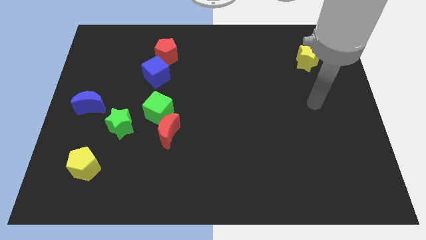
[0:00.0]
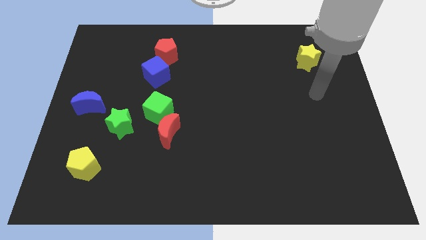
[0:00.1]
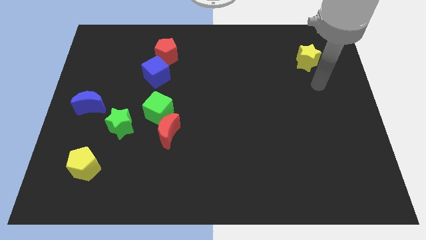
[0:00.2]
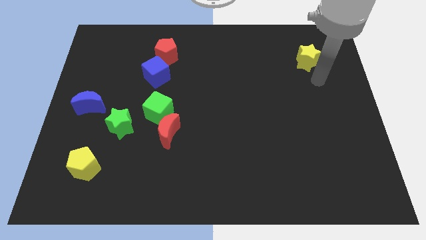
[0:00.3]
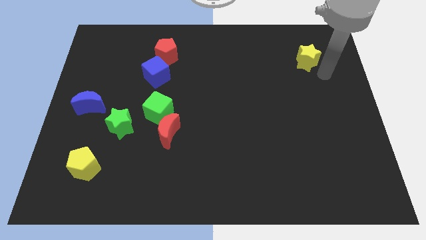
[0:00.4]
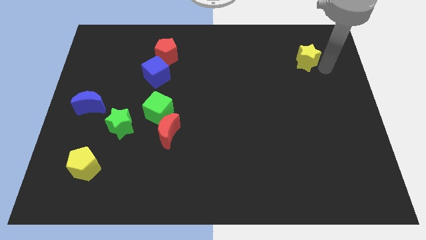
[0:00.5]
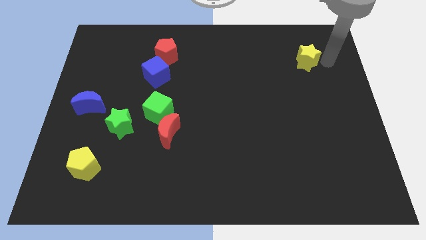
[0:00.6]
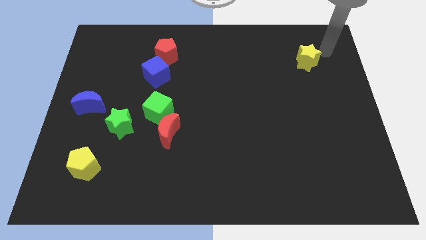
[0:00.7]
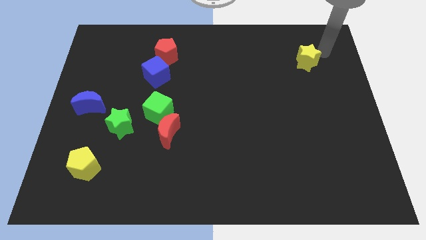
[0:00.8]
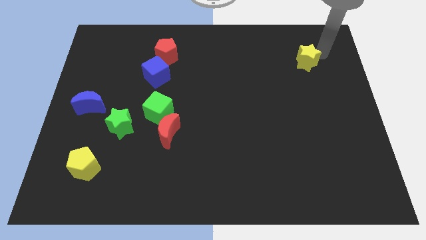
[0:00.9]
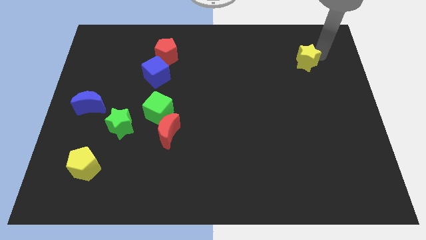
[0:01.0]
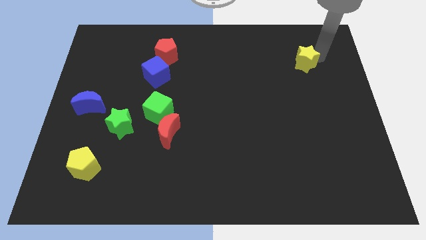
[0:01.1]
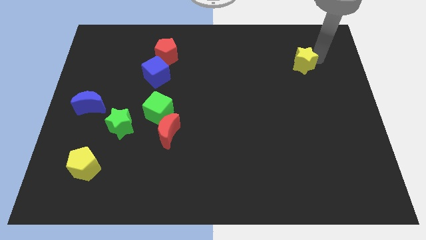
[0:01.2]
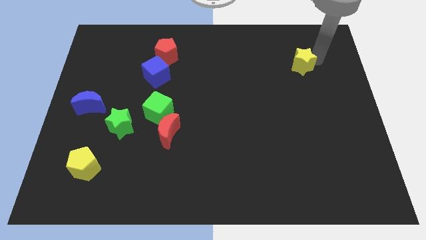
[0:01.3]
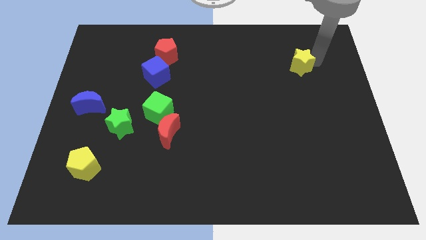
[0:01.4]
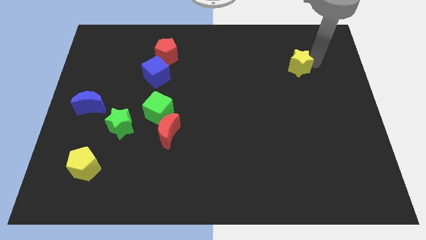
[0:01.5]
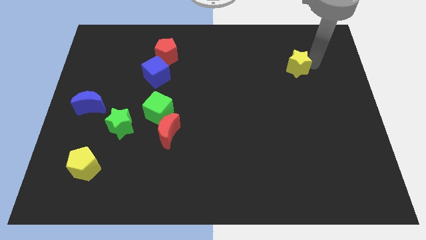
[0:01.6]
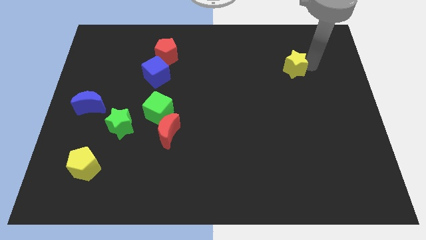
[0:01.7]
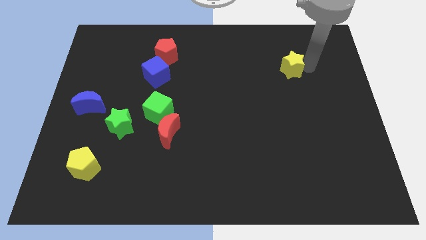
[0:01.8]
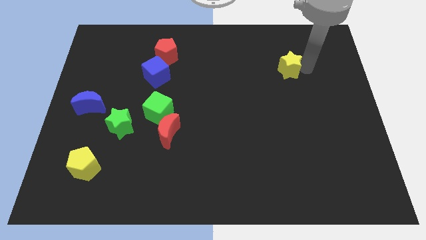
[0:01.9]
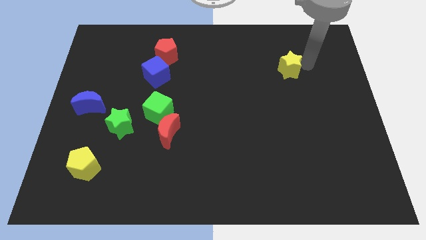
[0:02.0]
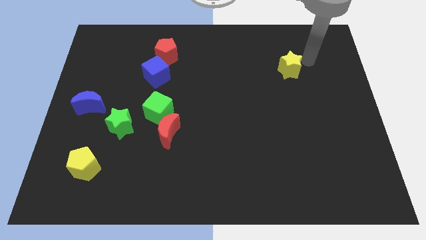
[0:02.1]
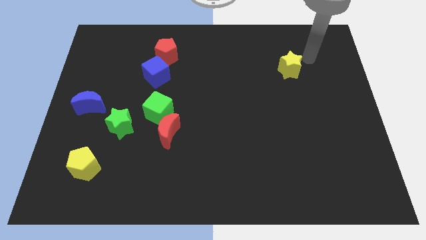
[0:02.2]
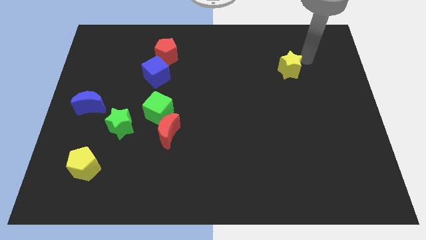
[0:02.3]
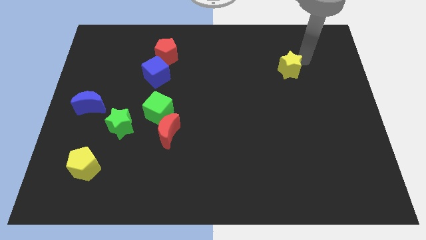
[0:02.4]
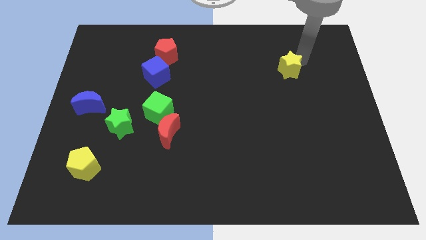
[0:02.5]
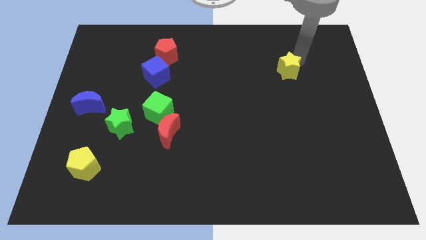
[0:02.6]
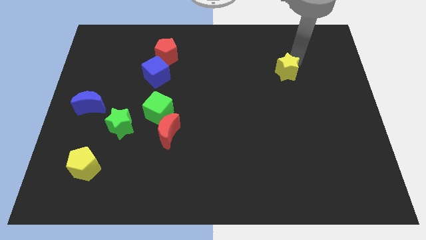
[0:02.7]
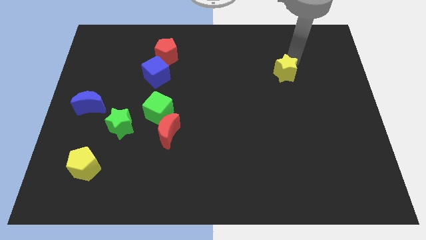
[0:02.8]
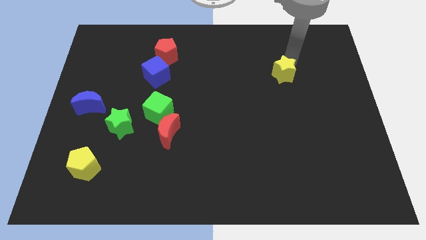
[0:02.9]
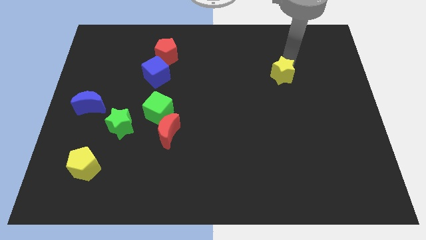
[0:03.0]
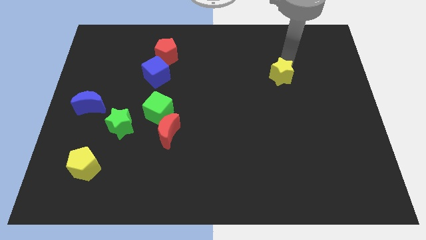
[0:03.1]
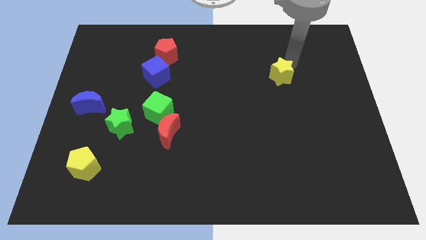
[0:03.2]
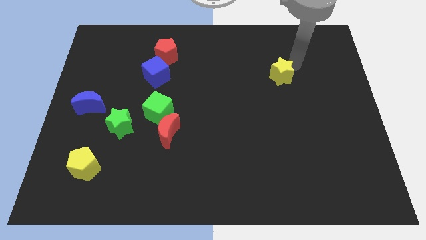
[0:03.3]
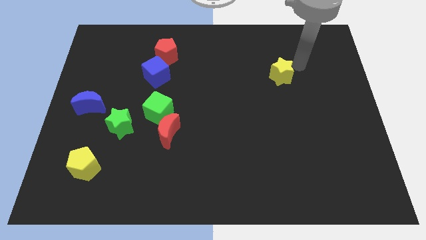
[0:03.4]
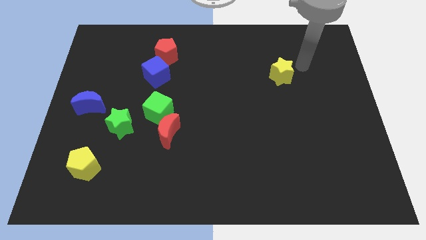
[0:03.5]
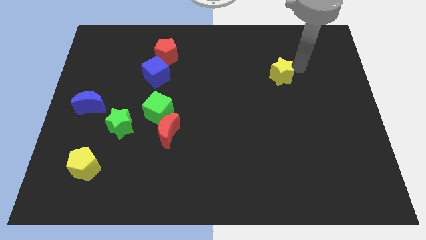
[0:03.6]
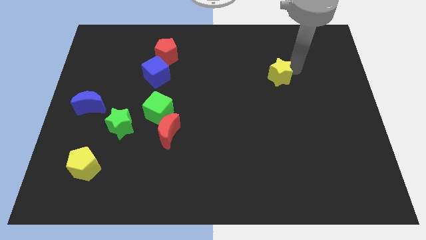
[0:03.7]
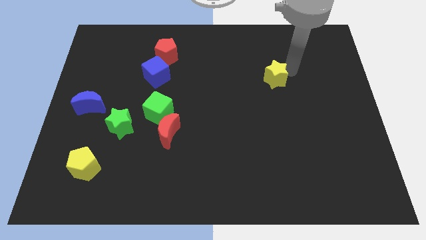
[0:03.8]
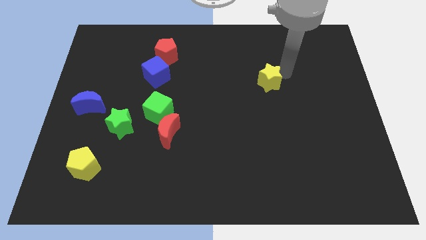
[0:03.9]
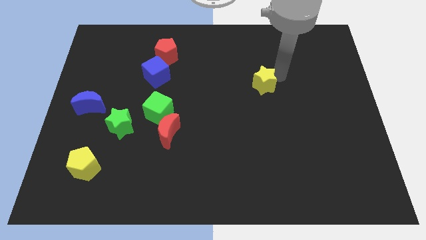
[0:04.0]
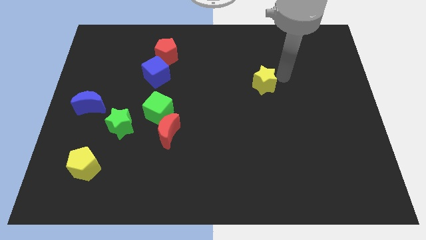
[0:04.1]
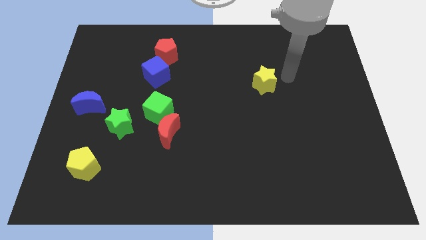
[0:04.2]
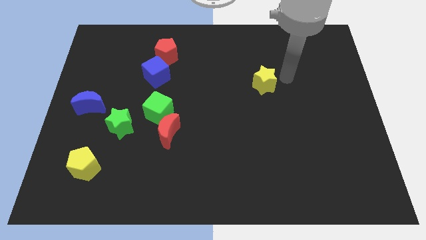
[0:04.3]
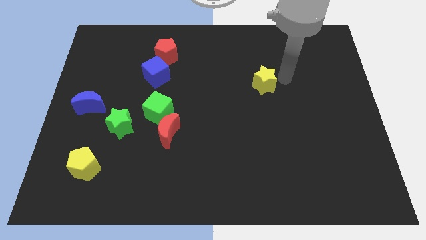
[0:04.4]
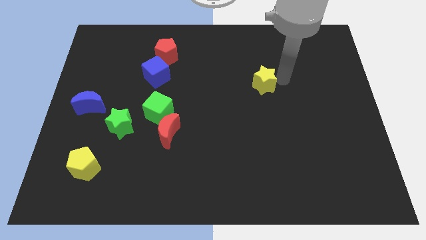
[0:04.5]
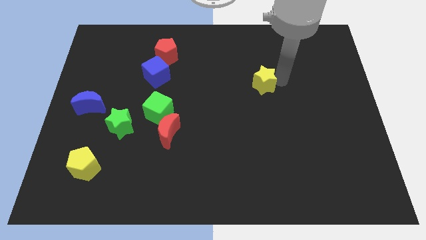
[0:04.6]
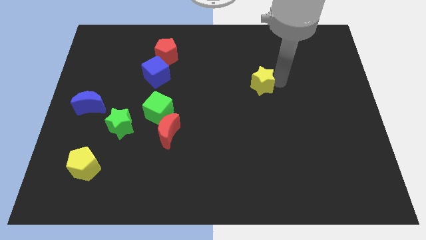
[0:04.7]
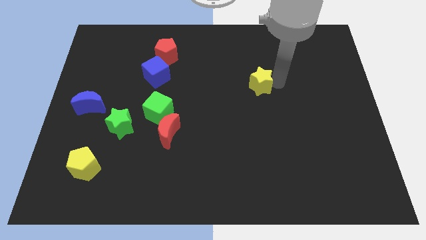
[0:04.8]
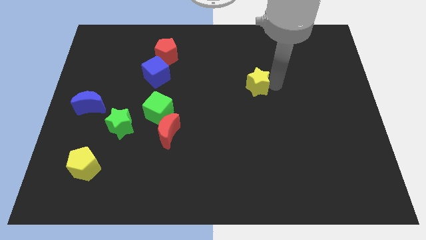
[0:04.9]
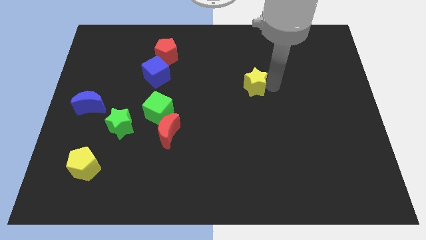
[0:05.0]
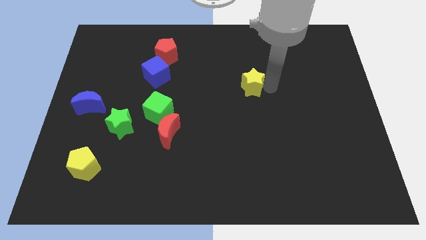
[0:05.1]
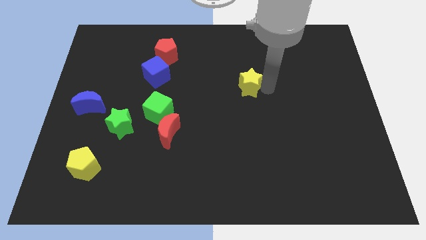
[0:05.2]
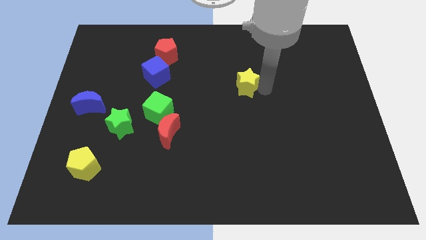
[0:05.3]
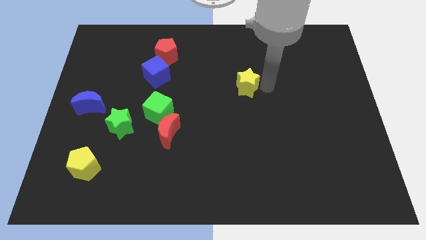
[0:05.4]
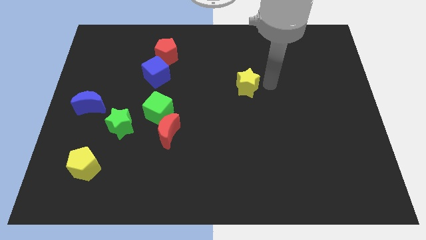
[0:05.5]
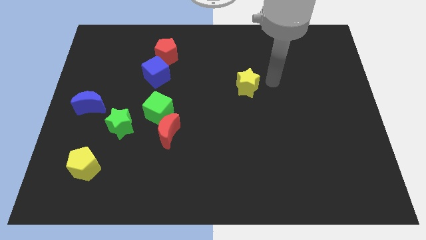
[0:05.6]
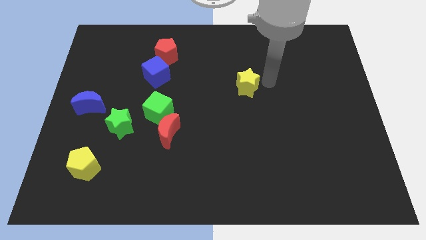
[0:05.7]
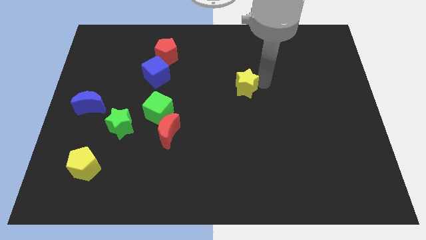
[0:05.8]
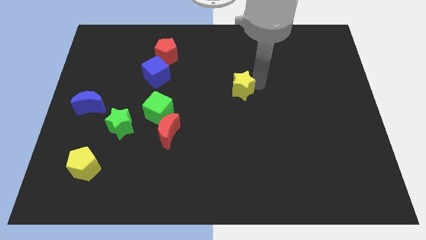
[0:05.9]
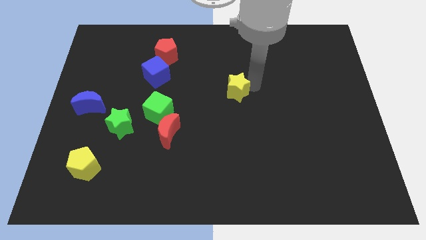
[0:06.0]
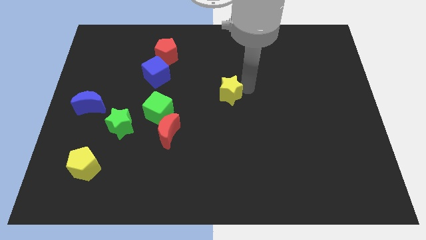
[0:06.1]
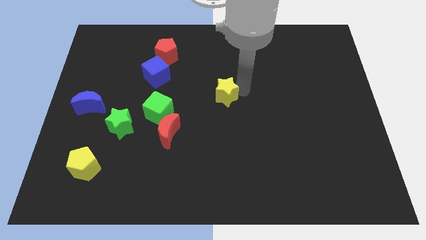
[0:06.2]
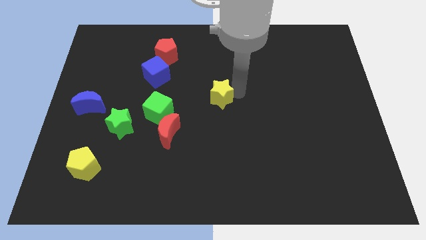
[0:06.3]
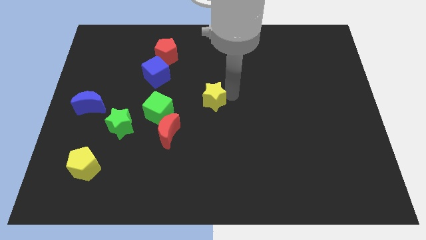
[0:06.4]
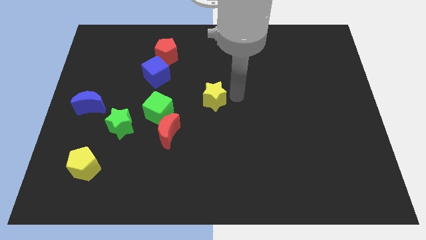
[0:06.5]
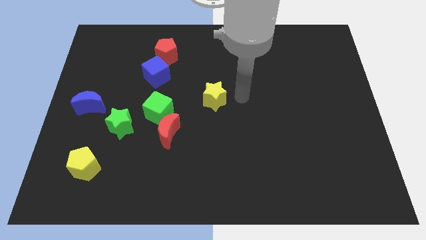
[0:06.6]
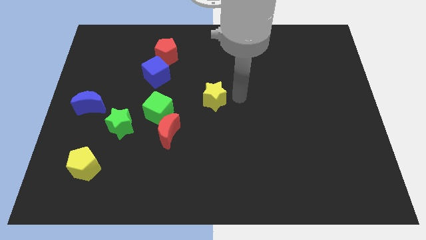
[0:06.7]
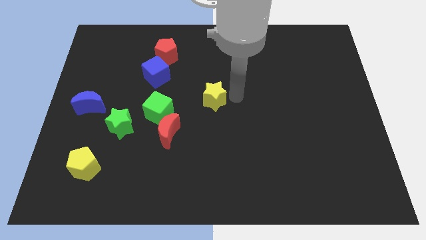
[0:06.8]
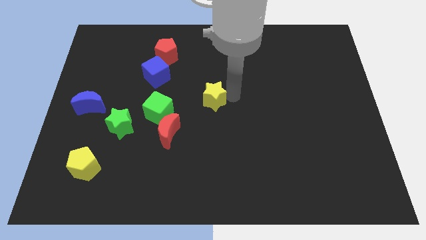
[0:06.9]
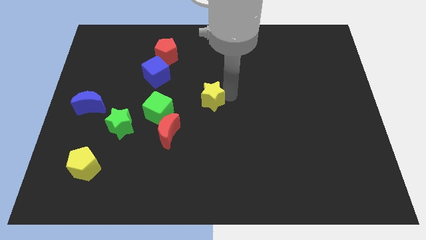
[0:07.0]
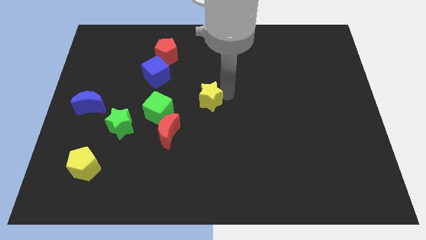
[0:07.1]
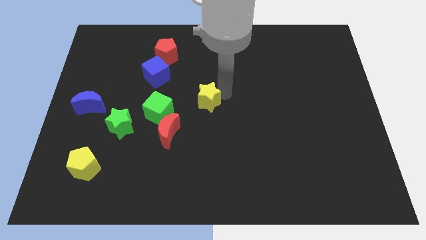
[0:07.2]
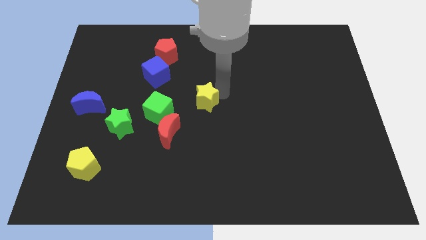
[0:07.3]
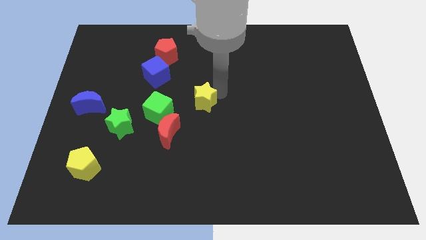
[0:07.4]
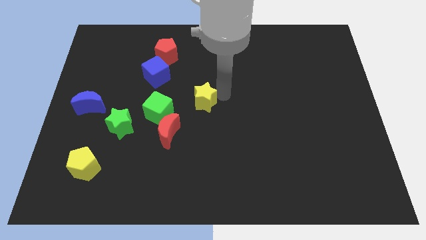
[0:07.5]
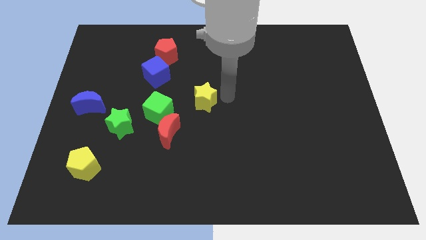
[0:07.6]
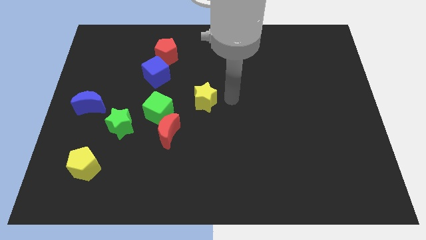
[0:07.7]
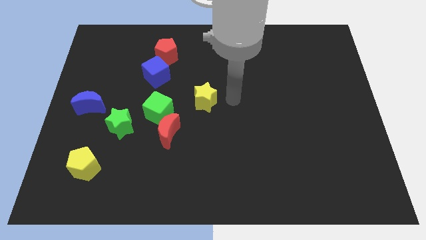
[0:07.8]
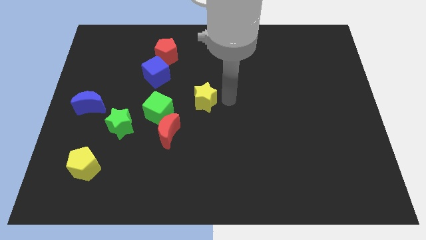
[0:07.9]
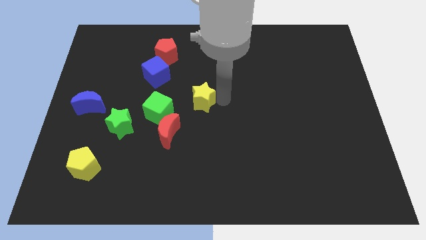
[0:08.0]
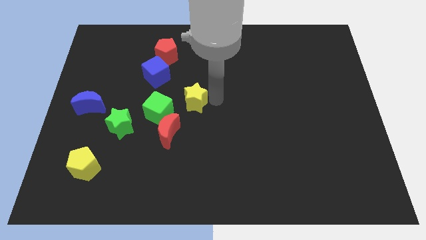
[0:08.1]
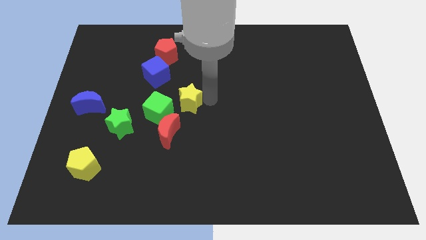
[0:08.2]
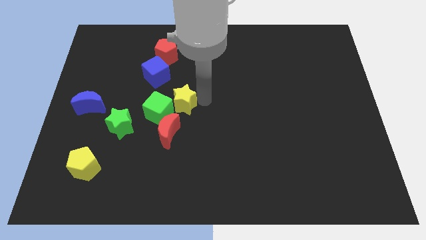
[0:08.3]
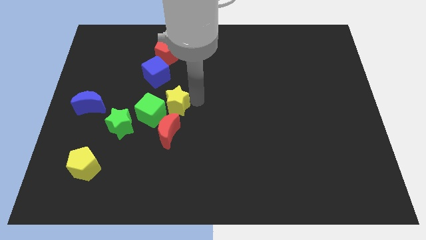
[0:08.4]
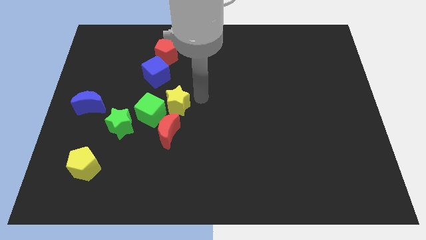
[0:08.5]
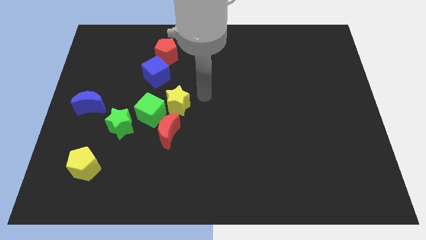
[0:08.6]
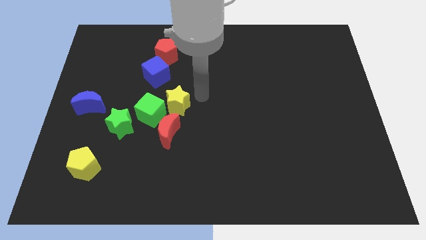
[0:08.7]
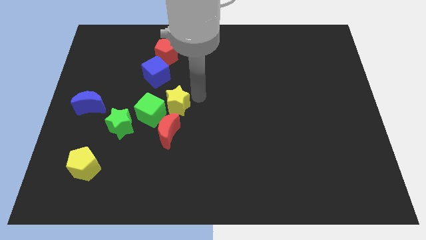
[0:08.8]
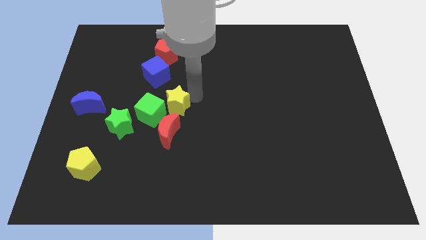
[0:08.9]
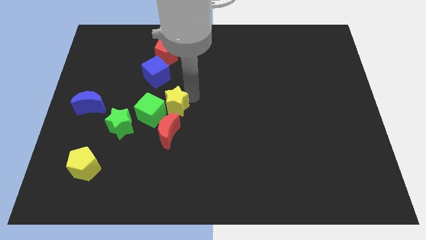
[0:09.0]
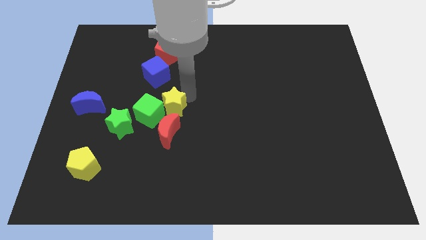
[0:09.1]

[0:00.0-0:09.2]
push the yellow star to the green cube
